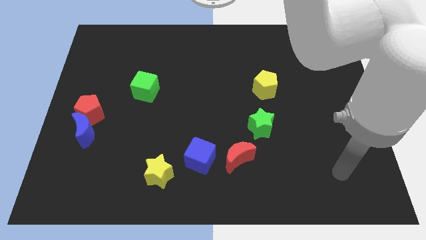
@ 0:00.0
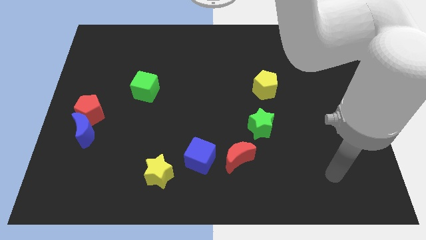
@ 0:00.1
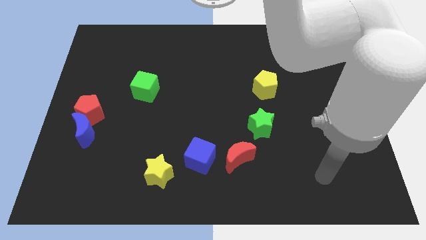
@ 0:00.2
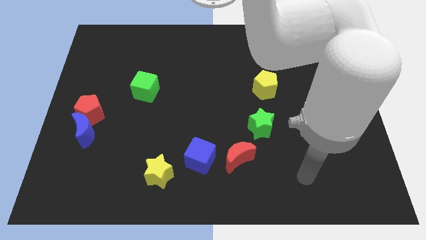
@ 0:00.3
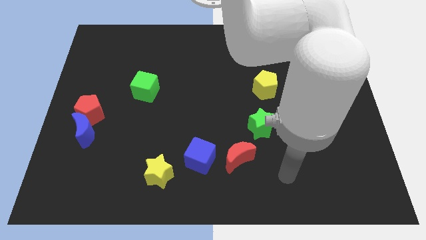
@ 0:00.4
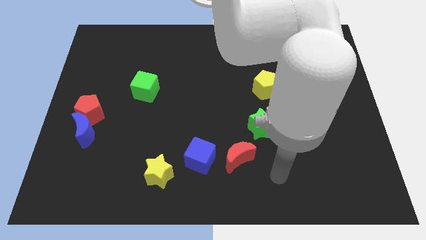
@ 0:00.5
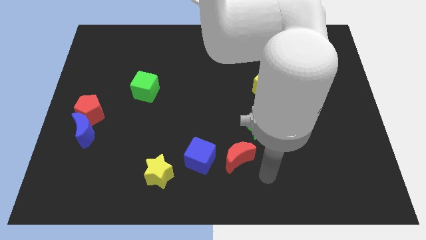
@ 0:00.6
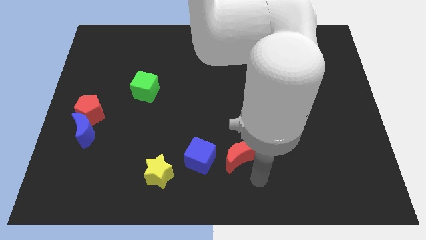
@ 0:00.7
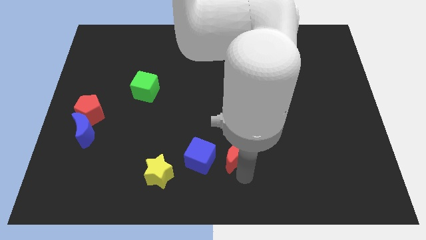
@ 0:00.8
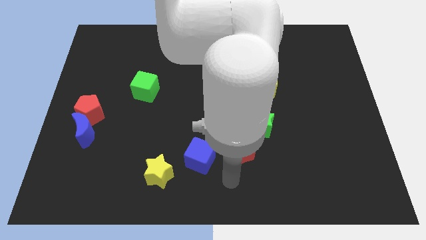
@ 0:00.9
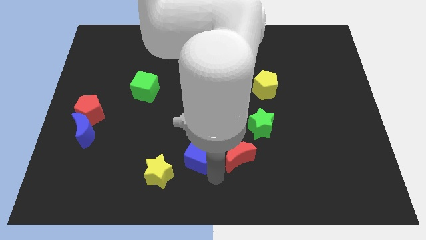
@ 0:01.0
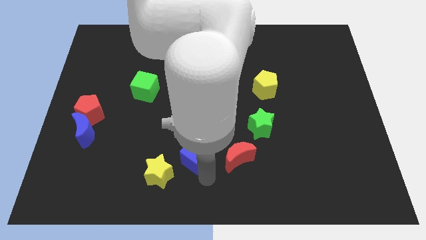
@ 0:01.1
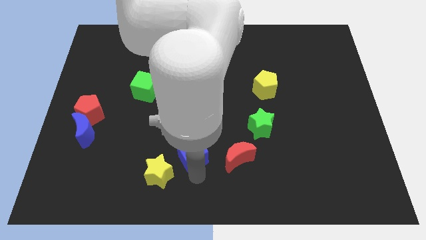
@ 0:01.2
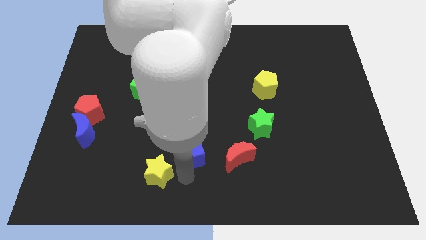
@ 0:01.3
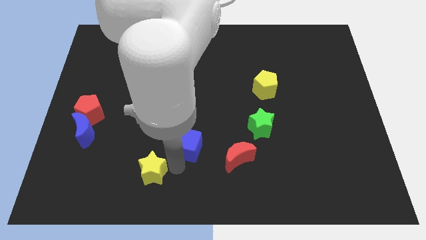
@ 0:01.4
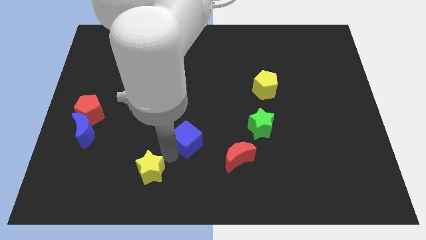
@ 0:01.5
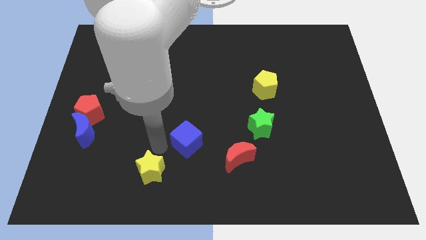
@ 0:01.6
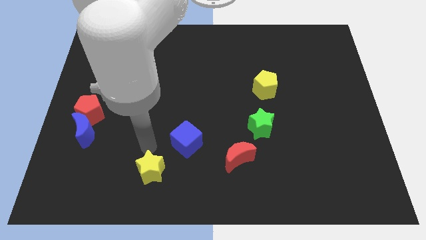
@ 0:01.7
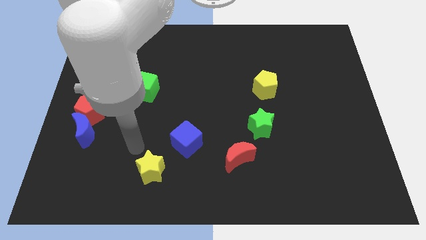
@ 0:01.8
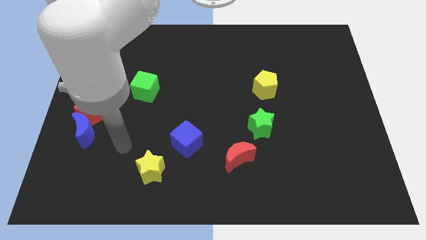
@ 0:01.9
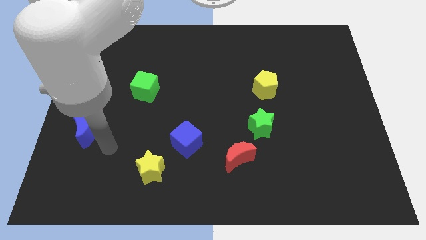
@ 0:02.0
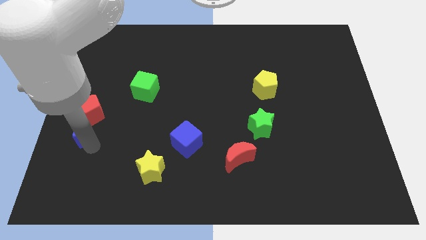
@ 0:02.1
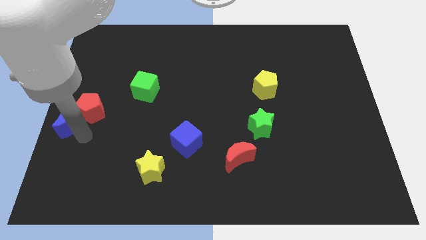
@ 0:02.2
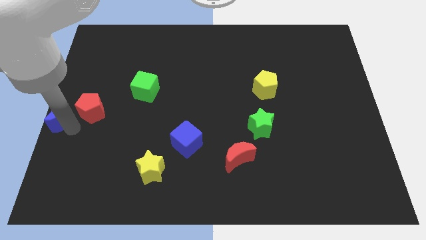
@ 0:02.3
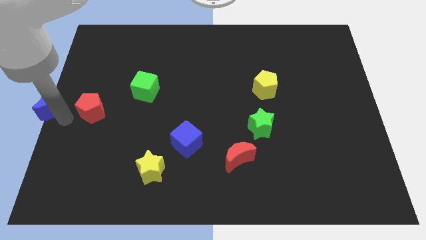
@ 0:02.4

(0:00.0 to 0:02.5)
separate the red pentagon from the blue moon

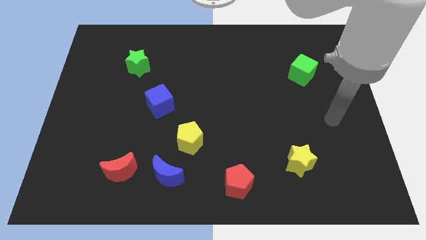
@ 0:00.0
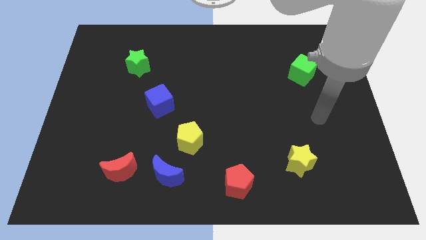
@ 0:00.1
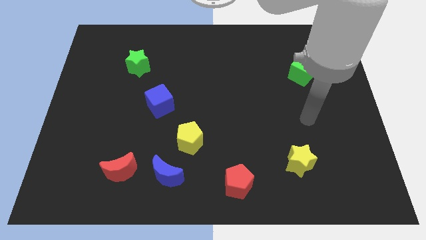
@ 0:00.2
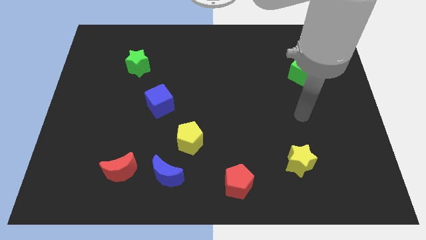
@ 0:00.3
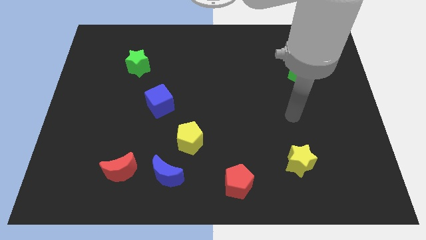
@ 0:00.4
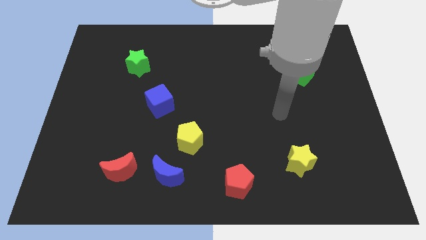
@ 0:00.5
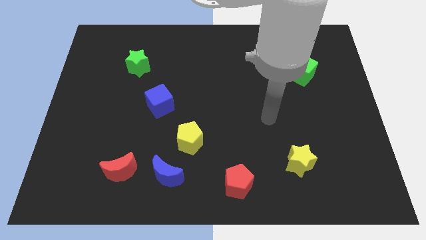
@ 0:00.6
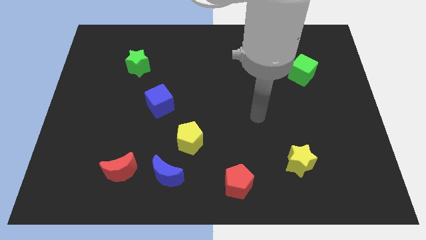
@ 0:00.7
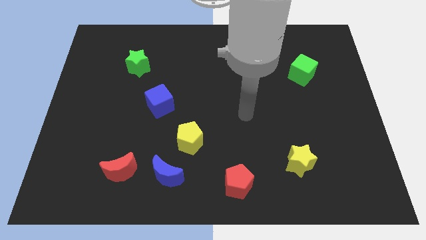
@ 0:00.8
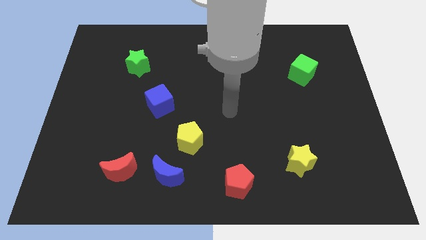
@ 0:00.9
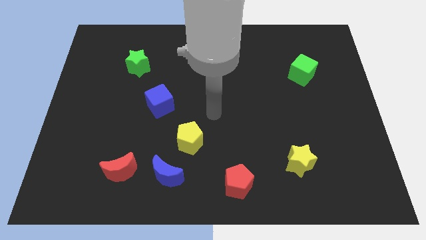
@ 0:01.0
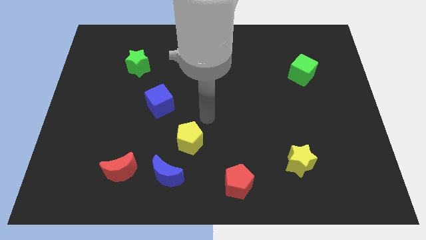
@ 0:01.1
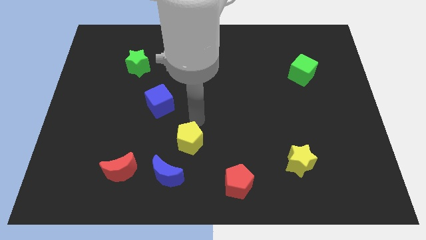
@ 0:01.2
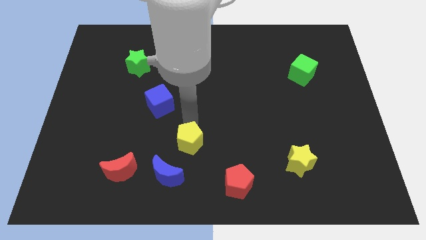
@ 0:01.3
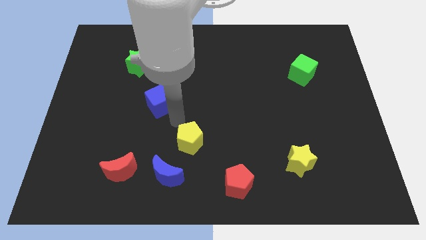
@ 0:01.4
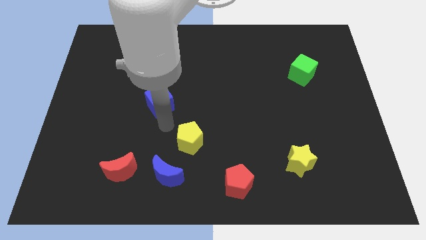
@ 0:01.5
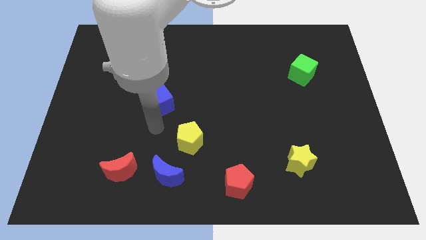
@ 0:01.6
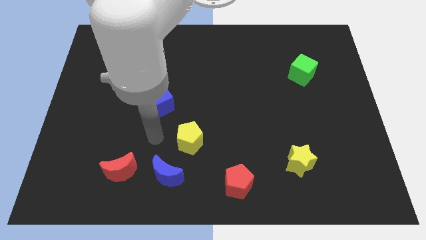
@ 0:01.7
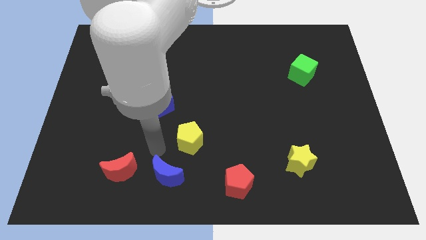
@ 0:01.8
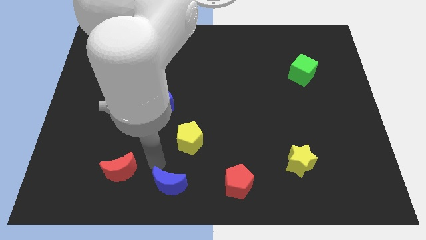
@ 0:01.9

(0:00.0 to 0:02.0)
pull the red moon apart from the blue moon

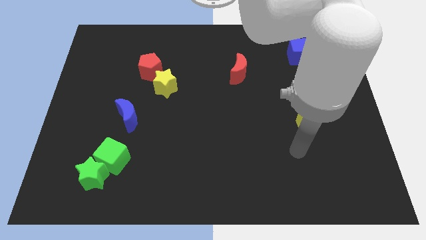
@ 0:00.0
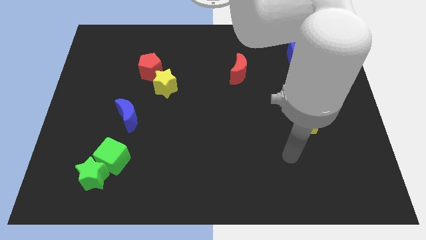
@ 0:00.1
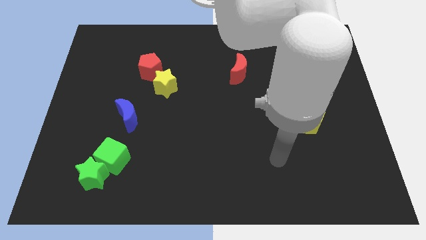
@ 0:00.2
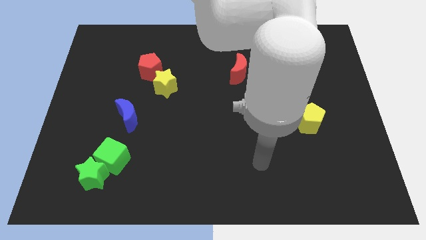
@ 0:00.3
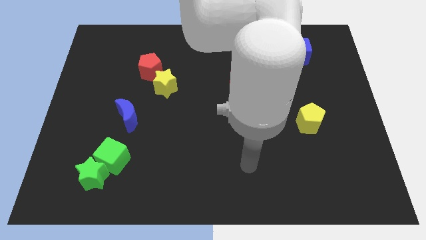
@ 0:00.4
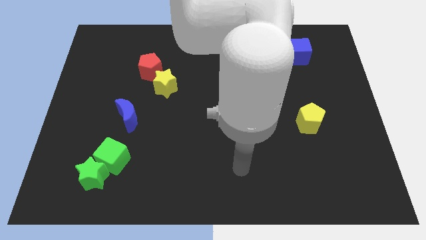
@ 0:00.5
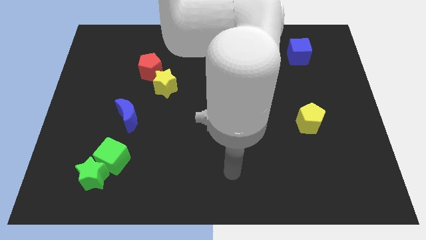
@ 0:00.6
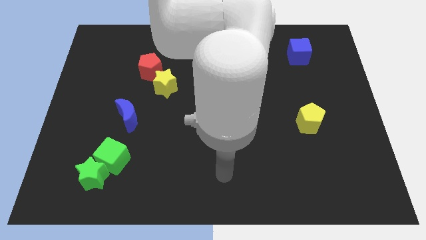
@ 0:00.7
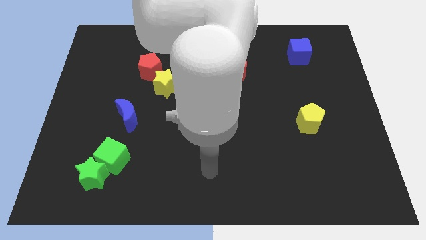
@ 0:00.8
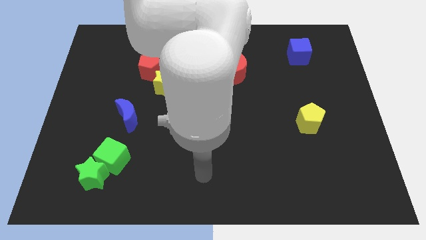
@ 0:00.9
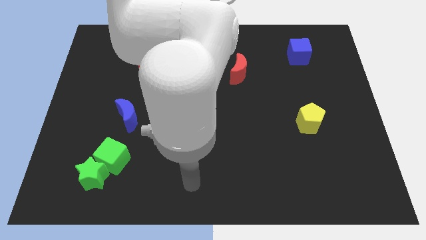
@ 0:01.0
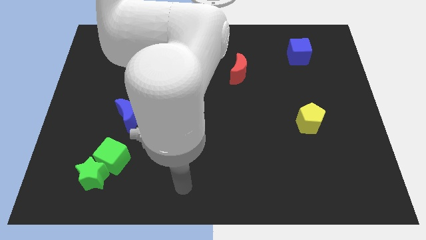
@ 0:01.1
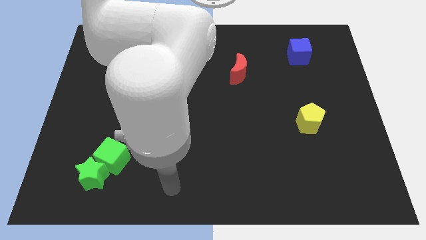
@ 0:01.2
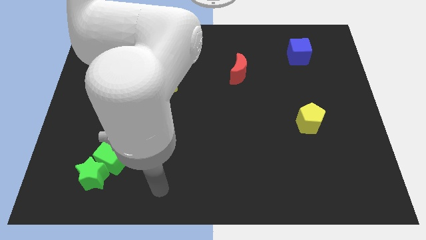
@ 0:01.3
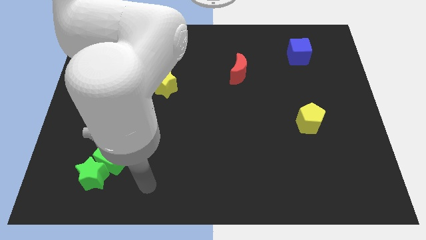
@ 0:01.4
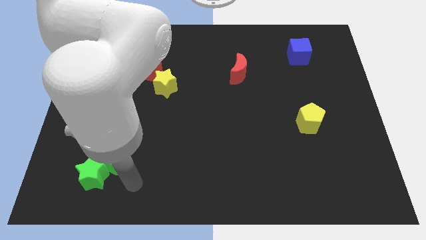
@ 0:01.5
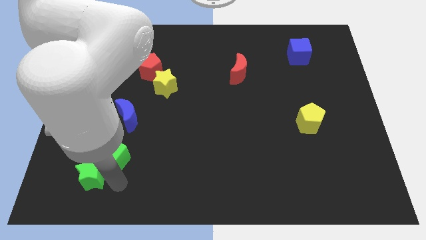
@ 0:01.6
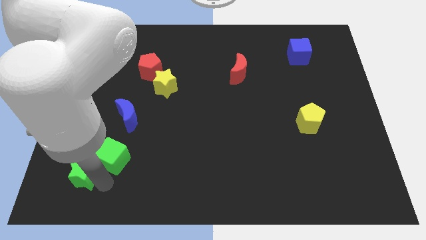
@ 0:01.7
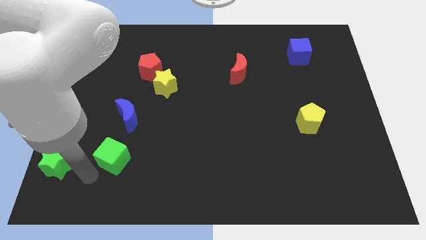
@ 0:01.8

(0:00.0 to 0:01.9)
pull the green cube apart from the green star

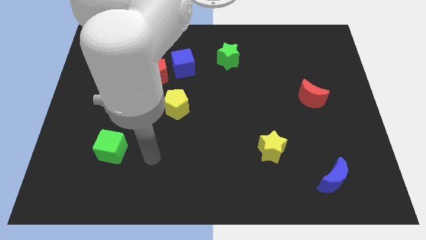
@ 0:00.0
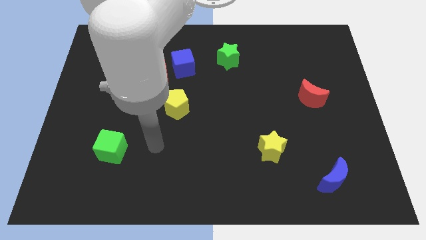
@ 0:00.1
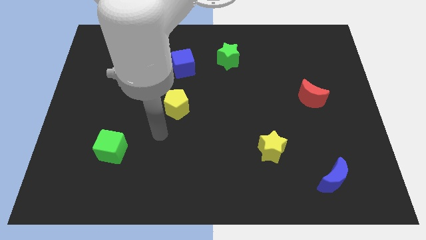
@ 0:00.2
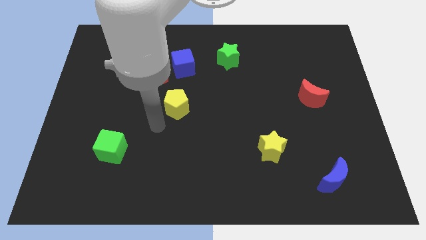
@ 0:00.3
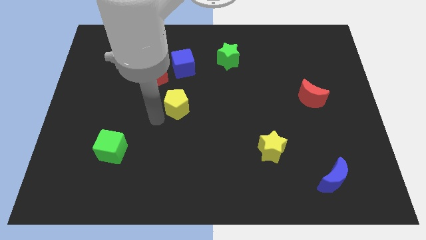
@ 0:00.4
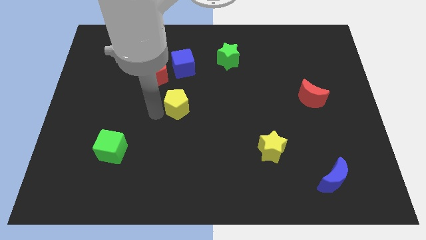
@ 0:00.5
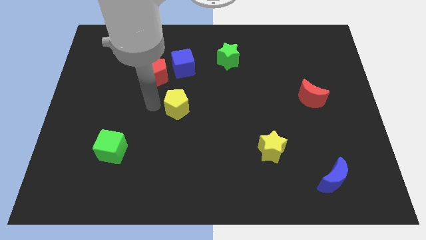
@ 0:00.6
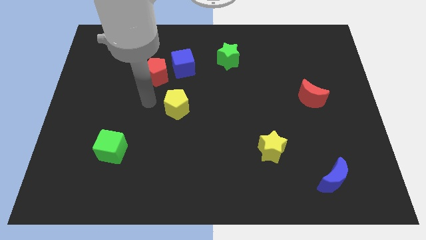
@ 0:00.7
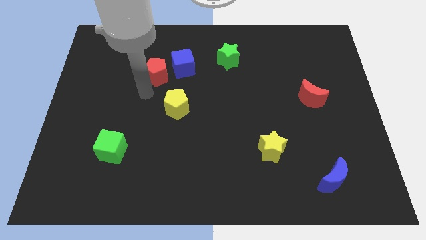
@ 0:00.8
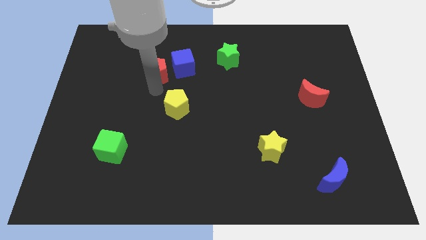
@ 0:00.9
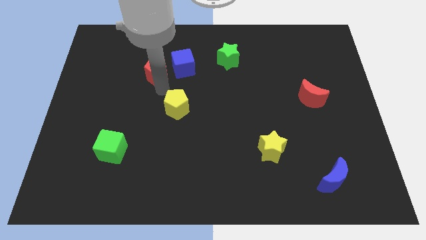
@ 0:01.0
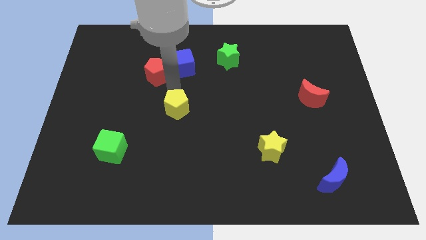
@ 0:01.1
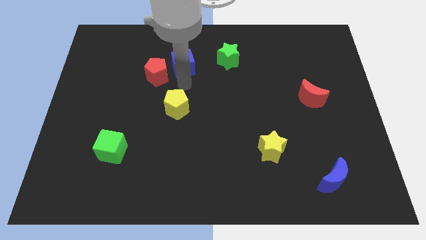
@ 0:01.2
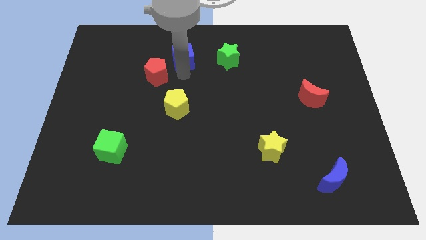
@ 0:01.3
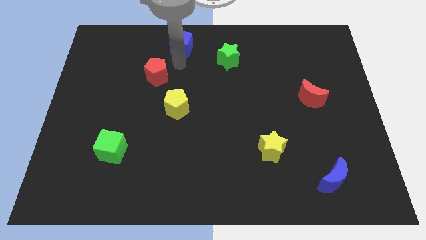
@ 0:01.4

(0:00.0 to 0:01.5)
pull the red pentagon apart from the blue cube

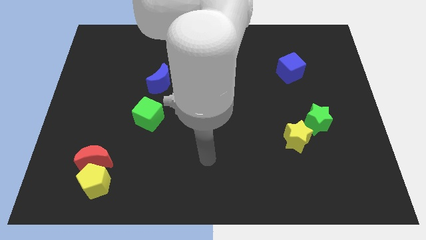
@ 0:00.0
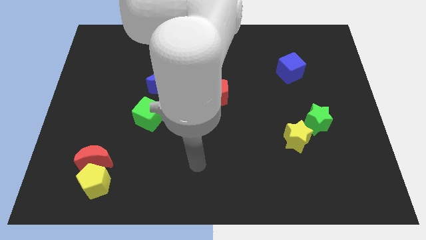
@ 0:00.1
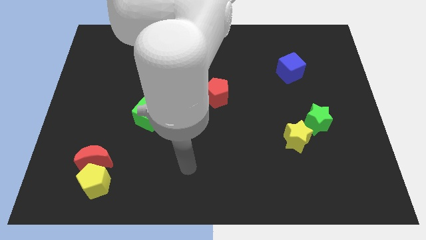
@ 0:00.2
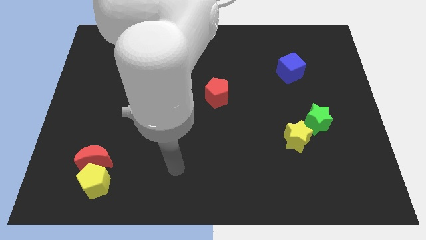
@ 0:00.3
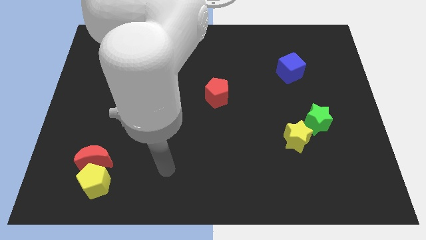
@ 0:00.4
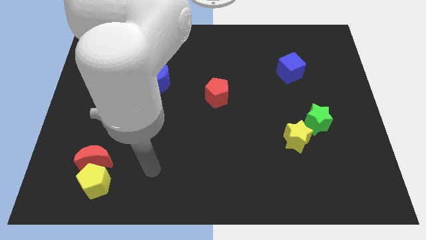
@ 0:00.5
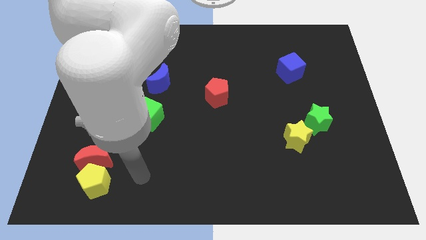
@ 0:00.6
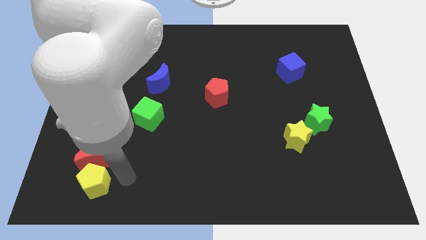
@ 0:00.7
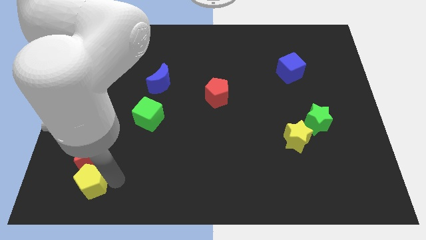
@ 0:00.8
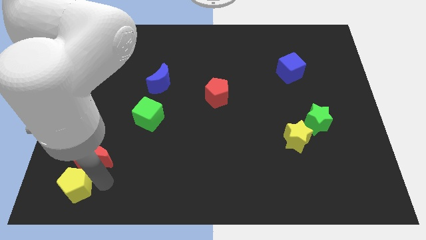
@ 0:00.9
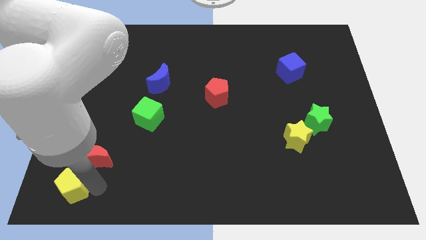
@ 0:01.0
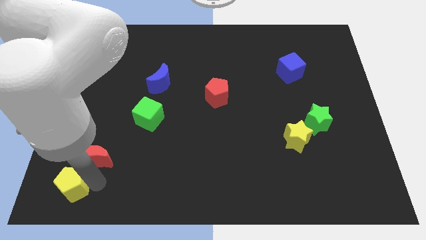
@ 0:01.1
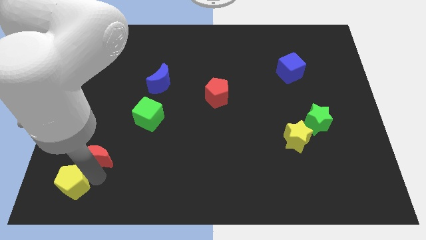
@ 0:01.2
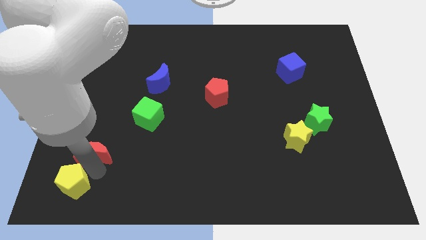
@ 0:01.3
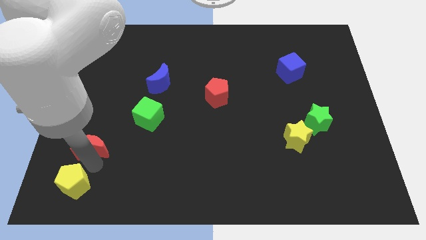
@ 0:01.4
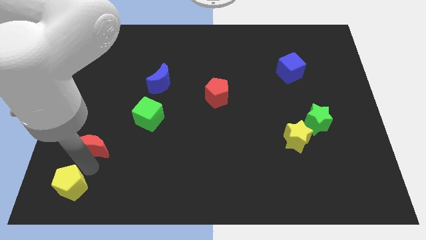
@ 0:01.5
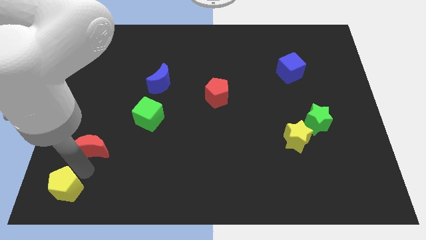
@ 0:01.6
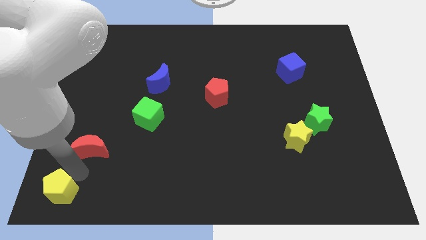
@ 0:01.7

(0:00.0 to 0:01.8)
move the red moon away from the yellow pentagon
